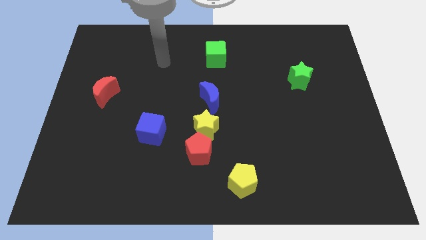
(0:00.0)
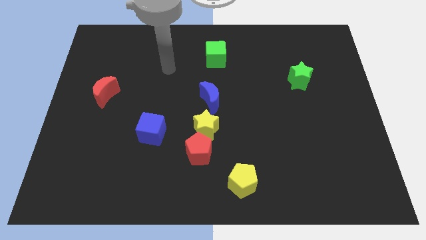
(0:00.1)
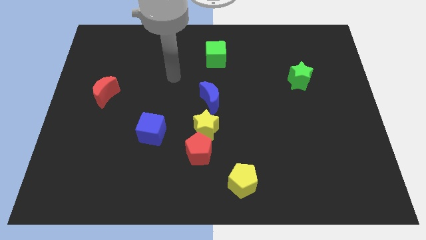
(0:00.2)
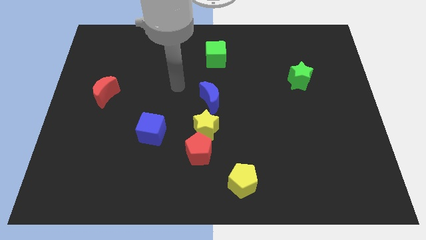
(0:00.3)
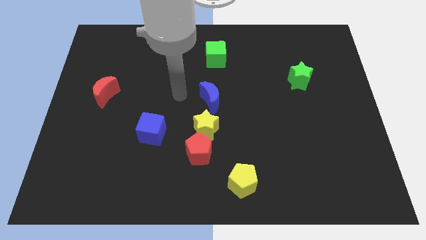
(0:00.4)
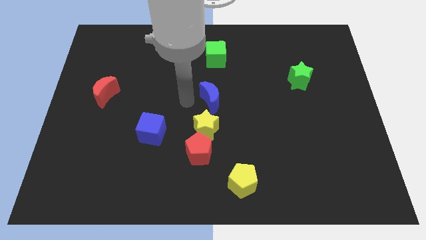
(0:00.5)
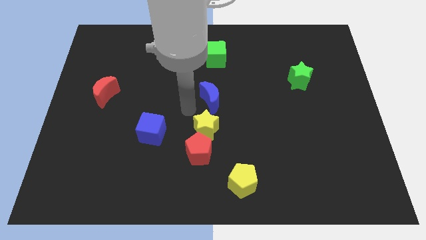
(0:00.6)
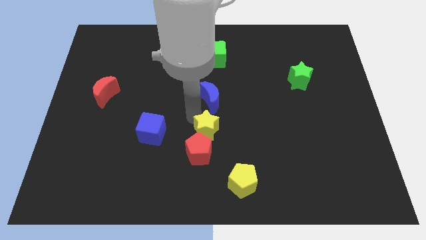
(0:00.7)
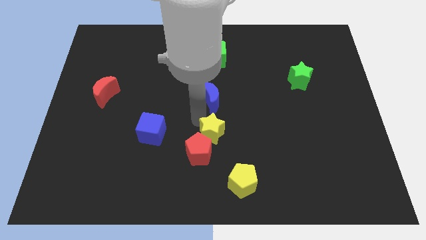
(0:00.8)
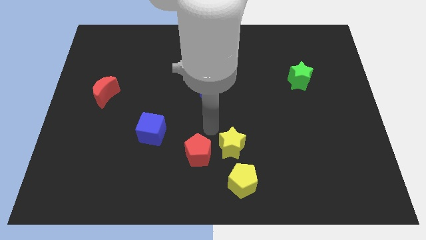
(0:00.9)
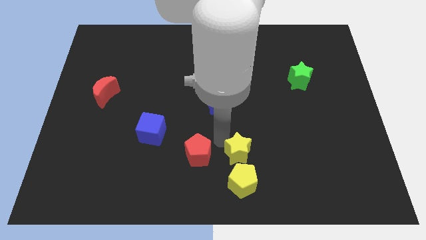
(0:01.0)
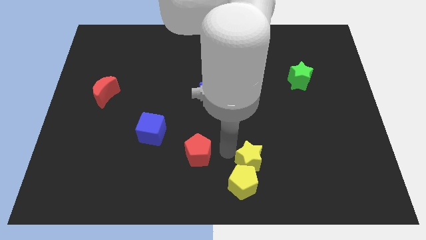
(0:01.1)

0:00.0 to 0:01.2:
move the red pentagon away from the yellow star

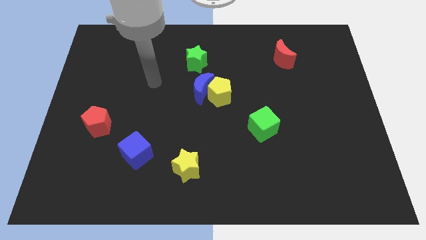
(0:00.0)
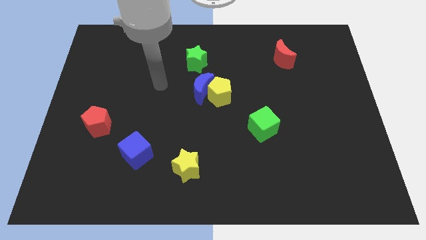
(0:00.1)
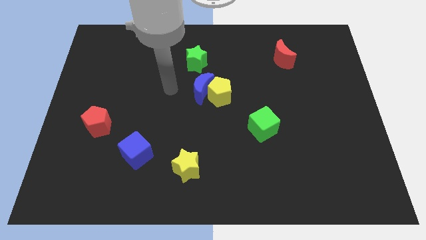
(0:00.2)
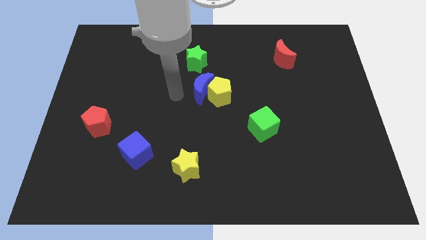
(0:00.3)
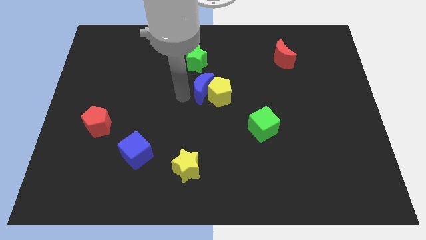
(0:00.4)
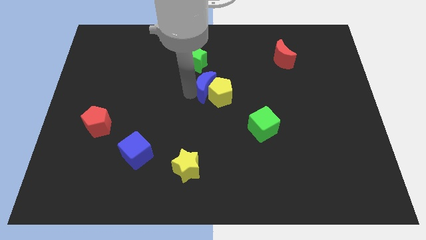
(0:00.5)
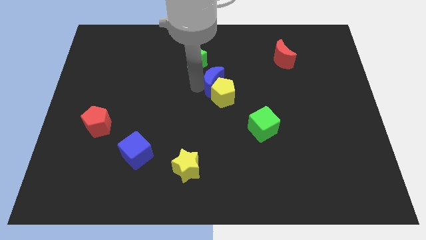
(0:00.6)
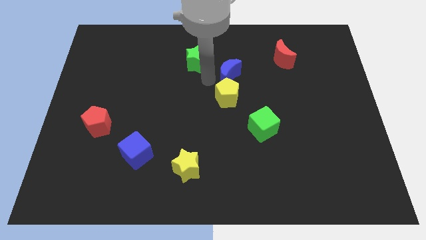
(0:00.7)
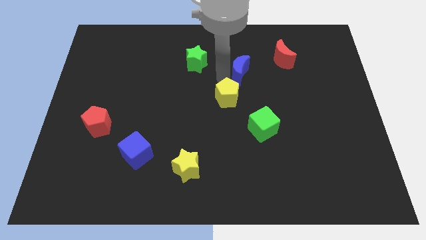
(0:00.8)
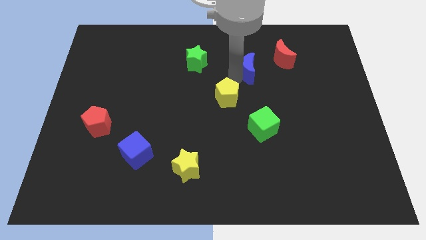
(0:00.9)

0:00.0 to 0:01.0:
pull the yellow pentagon apart from the blue moon

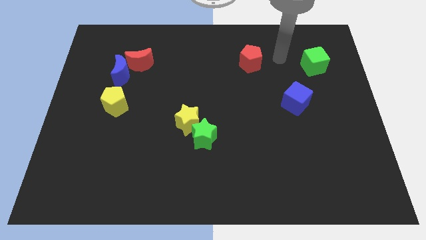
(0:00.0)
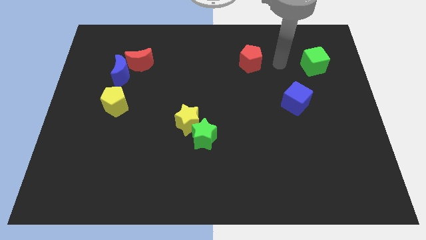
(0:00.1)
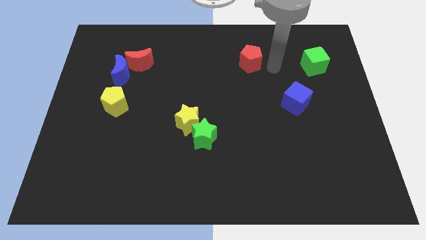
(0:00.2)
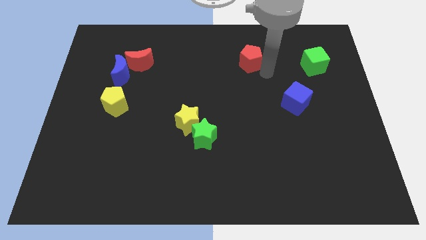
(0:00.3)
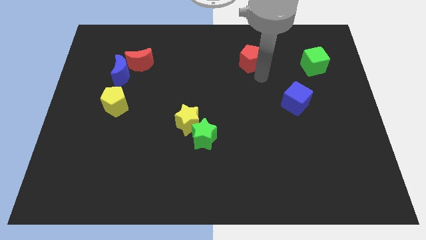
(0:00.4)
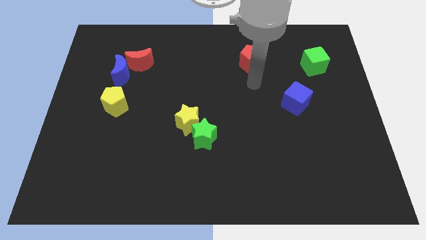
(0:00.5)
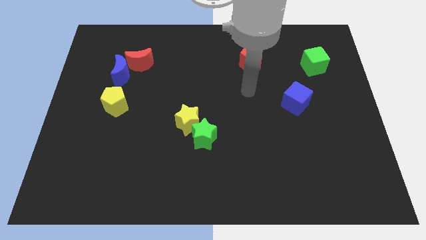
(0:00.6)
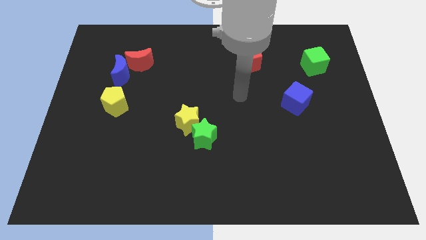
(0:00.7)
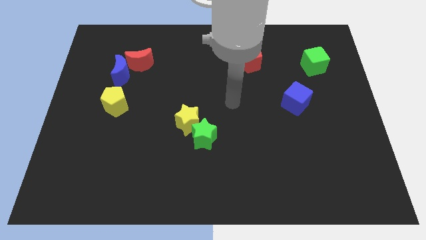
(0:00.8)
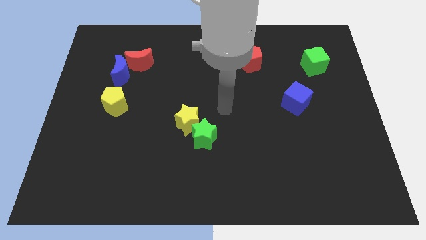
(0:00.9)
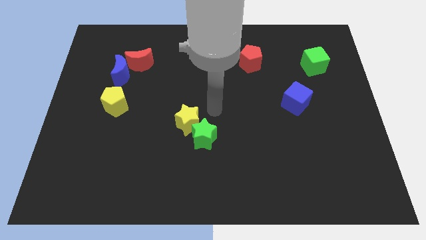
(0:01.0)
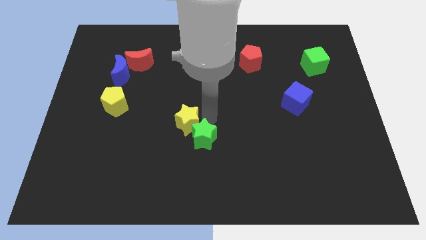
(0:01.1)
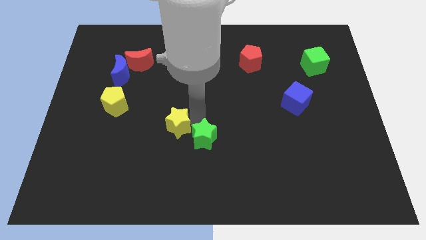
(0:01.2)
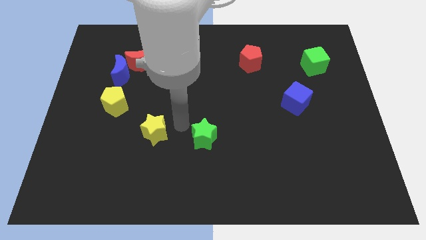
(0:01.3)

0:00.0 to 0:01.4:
move the green star away from the yellow star

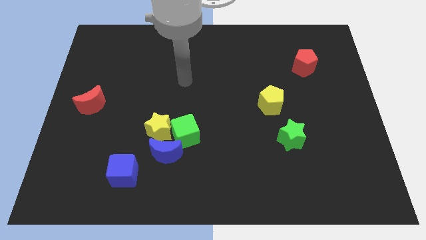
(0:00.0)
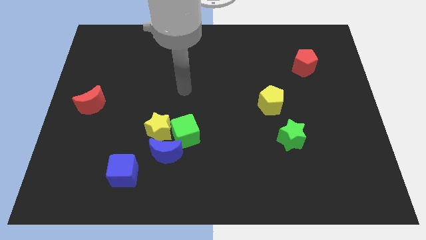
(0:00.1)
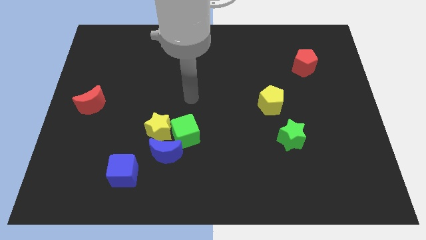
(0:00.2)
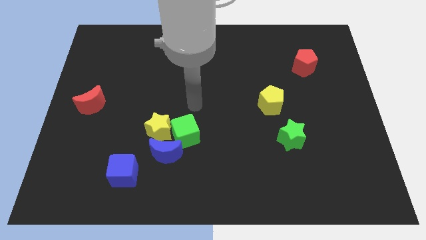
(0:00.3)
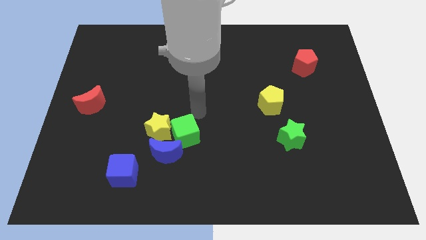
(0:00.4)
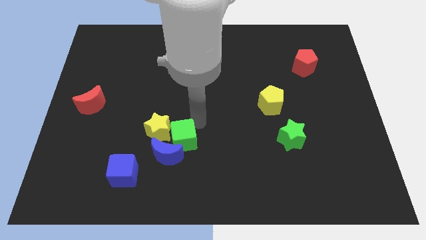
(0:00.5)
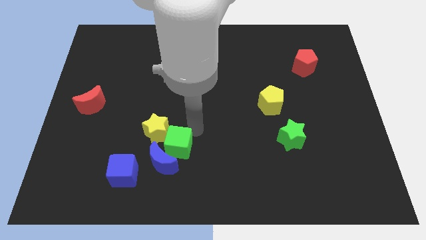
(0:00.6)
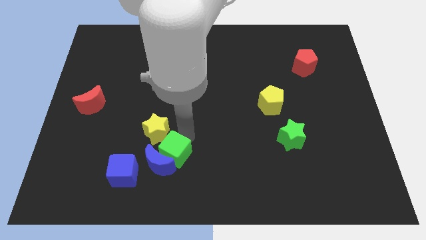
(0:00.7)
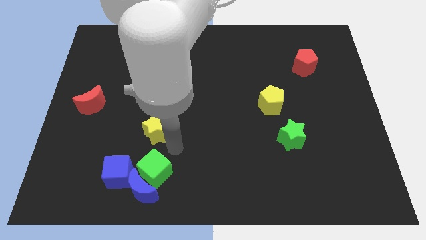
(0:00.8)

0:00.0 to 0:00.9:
move the yellow star away from the green cube and blue moon

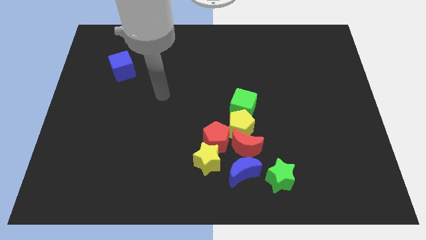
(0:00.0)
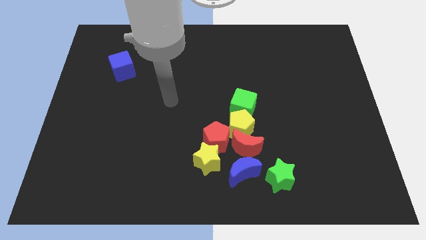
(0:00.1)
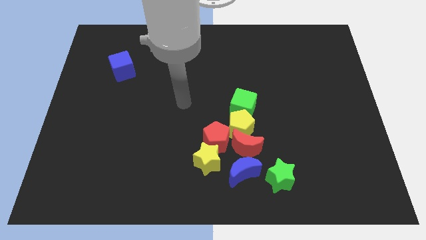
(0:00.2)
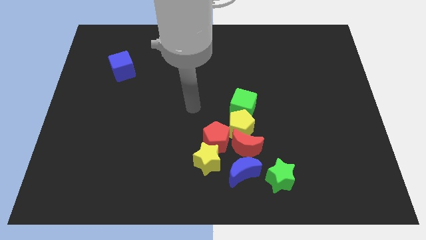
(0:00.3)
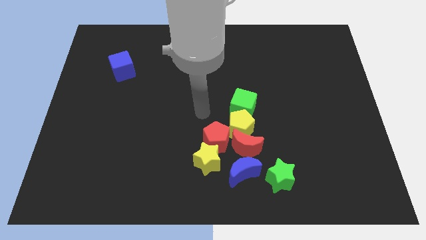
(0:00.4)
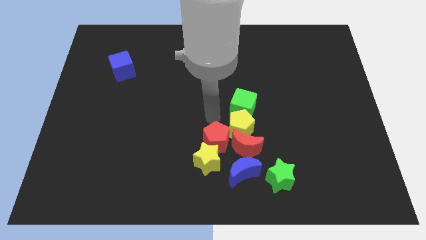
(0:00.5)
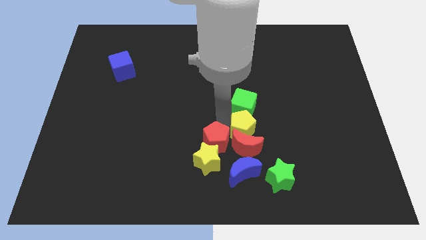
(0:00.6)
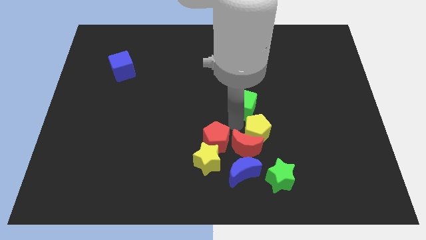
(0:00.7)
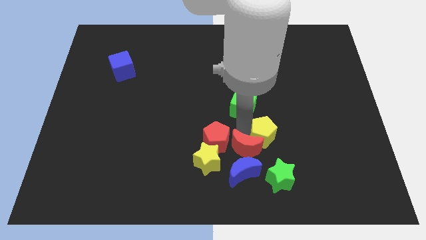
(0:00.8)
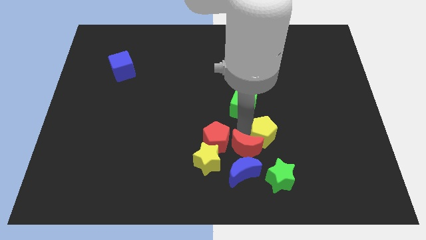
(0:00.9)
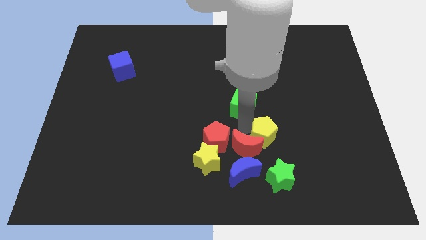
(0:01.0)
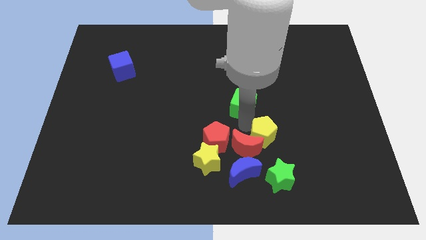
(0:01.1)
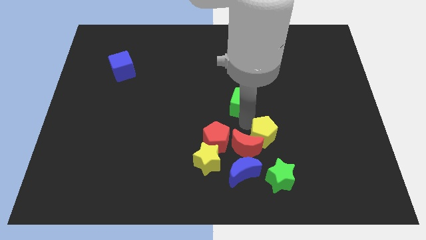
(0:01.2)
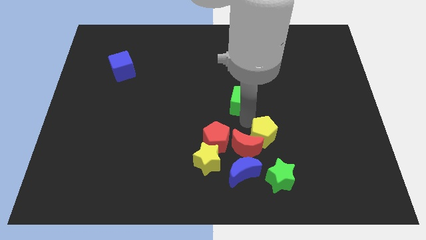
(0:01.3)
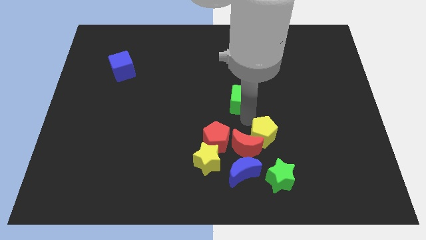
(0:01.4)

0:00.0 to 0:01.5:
separate the green cube from the yellow pentagon

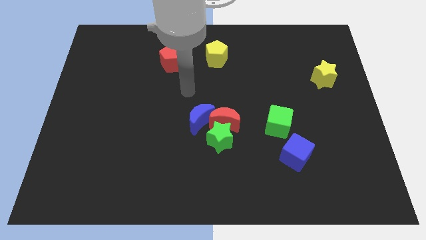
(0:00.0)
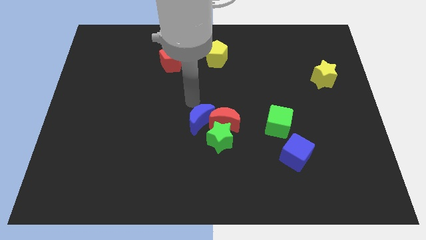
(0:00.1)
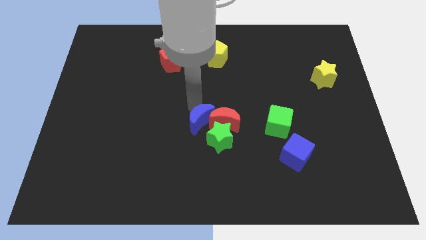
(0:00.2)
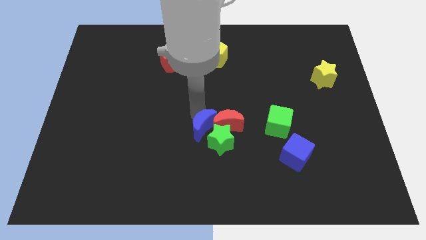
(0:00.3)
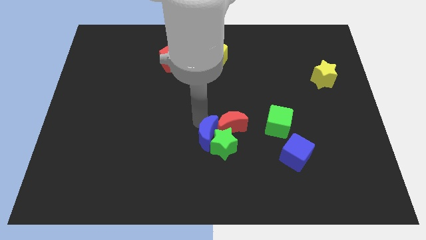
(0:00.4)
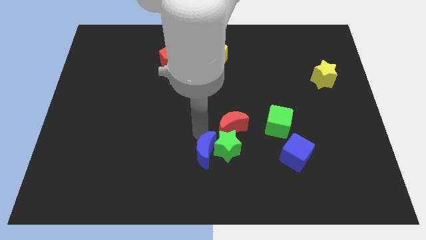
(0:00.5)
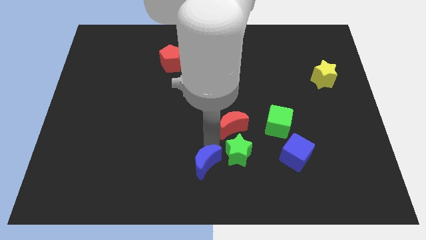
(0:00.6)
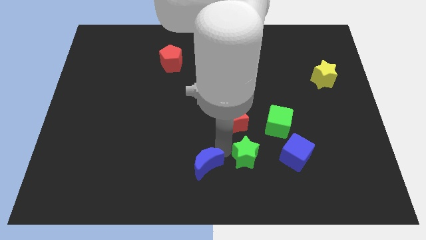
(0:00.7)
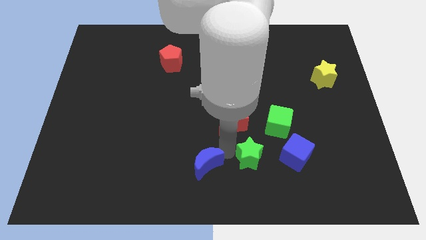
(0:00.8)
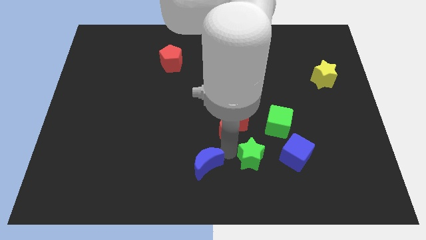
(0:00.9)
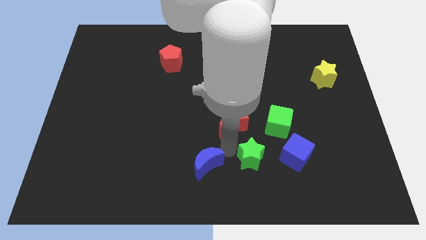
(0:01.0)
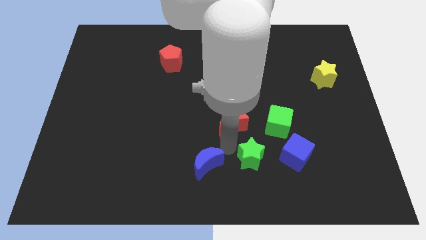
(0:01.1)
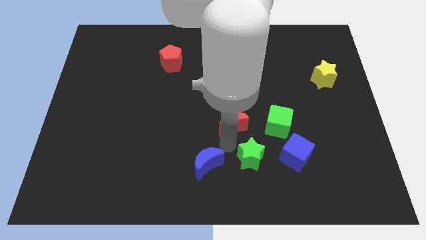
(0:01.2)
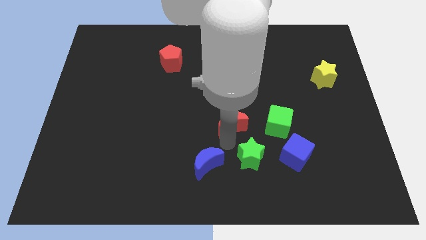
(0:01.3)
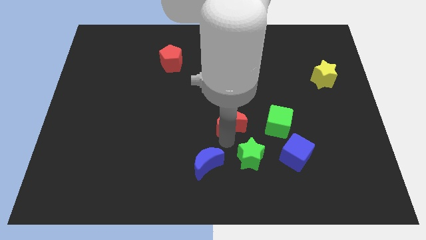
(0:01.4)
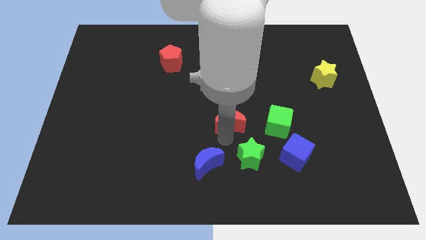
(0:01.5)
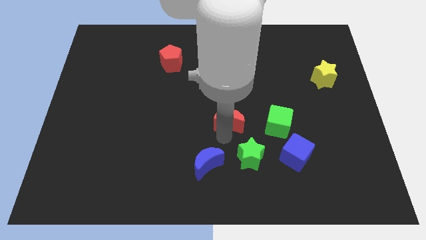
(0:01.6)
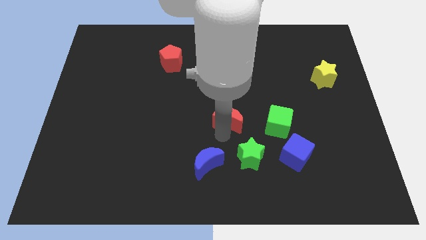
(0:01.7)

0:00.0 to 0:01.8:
move the red moon away from the green star and blue moon

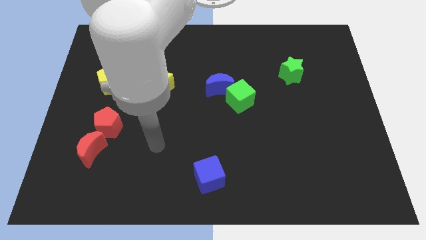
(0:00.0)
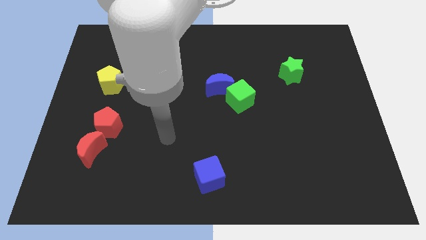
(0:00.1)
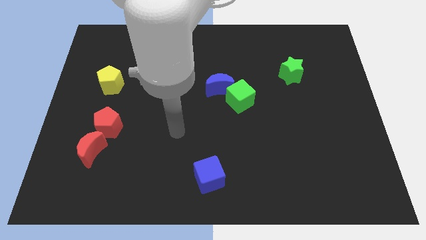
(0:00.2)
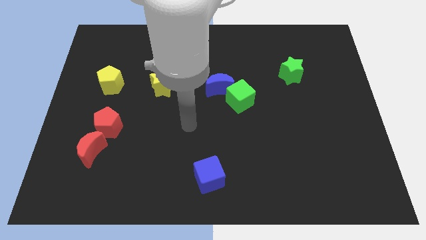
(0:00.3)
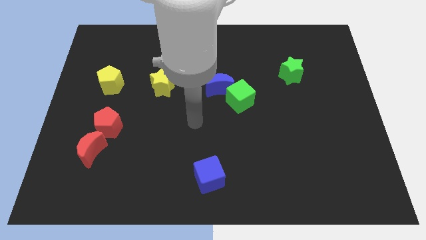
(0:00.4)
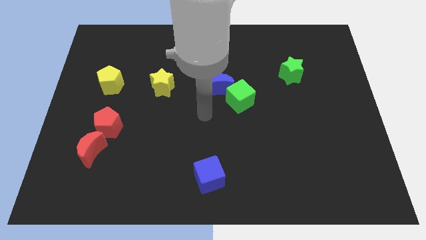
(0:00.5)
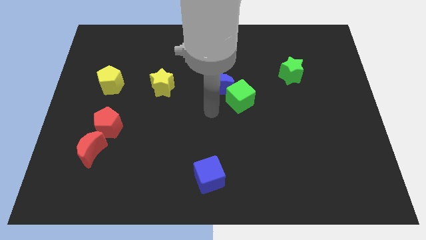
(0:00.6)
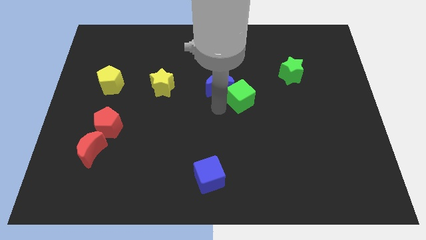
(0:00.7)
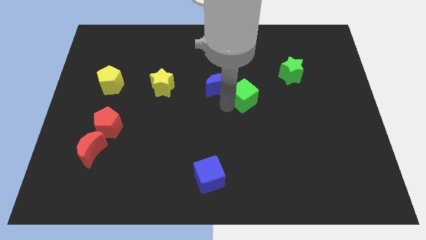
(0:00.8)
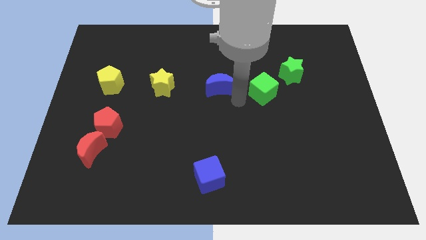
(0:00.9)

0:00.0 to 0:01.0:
separate the blue moon from the green cube

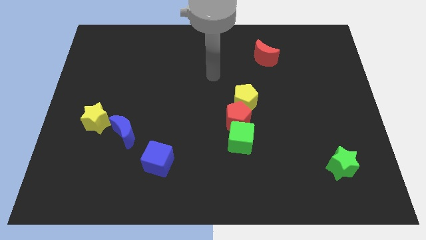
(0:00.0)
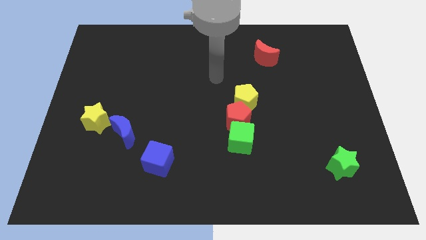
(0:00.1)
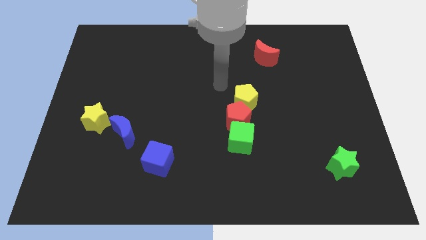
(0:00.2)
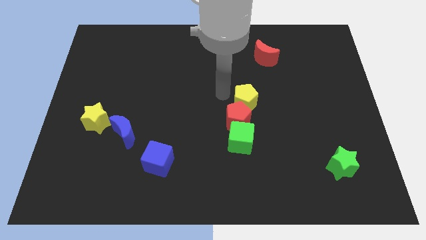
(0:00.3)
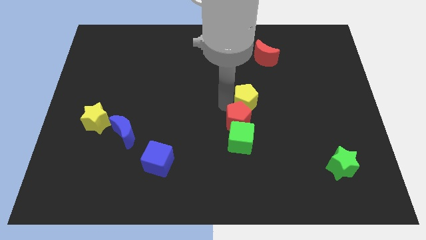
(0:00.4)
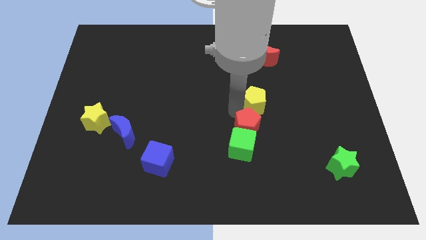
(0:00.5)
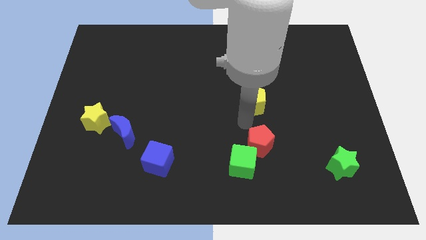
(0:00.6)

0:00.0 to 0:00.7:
move the yellow pentagon away from the red pentagon
